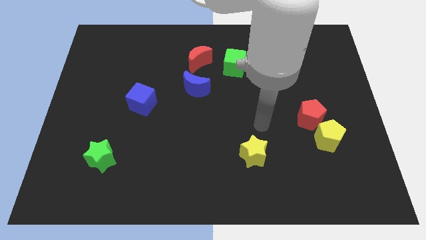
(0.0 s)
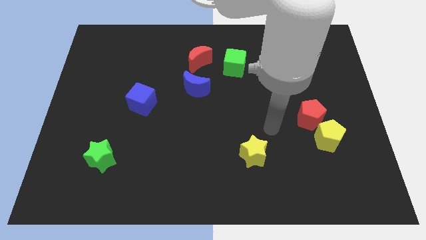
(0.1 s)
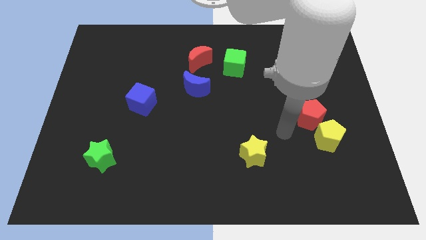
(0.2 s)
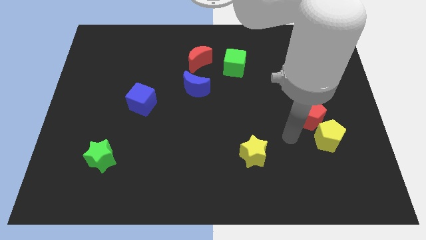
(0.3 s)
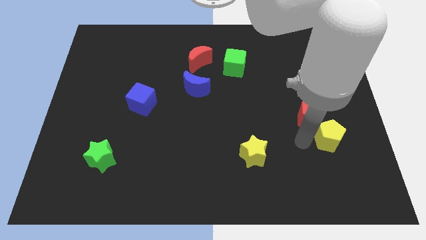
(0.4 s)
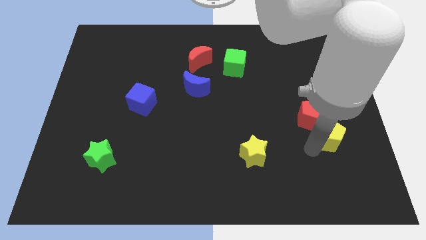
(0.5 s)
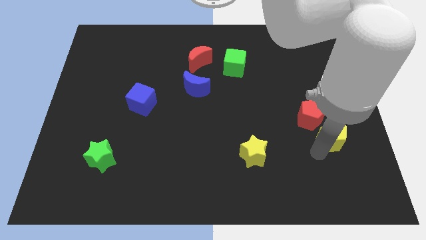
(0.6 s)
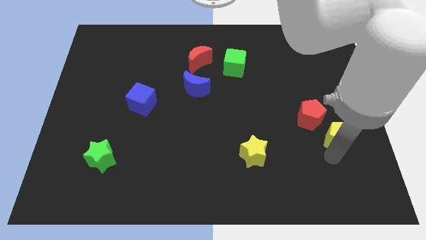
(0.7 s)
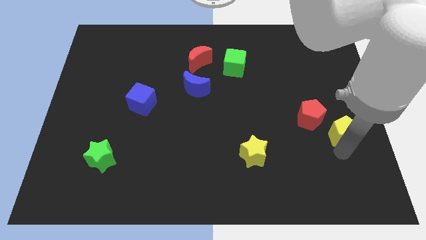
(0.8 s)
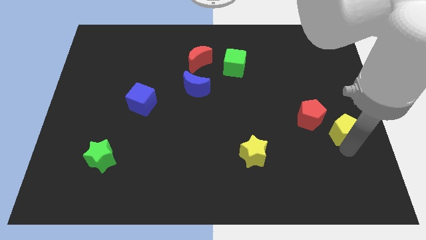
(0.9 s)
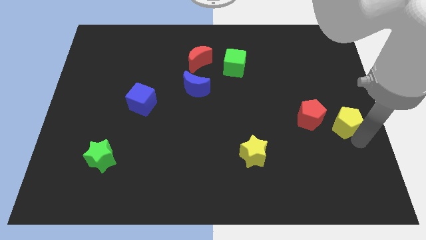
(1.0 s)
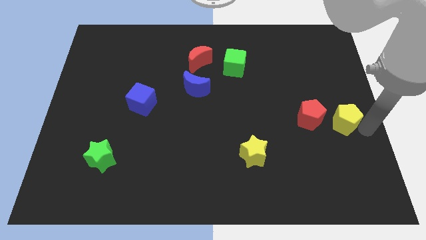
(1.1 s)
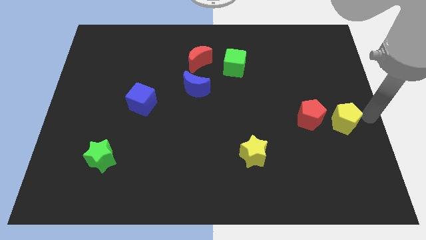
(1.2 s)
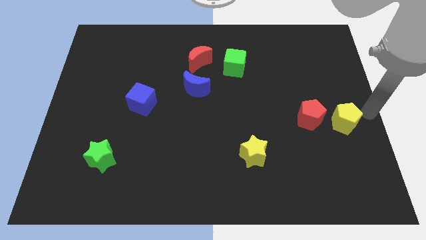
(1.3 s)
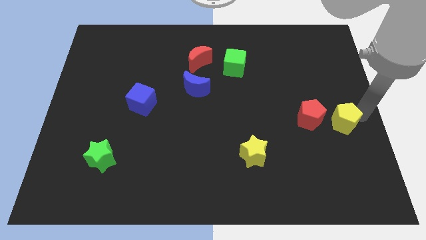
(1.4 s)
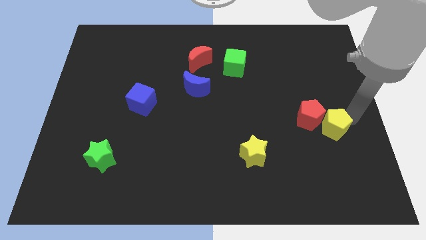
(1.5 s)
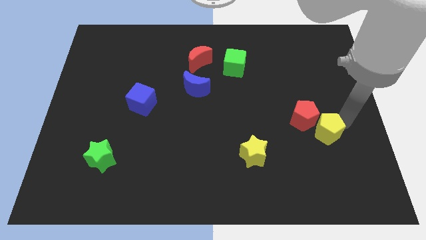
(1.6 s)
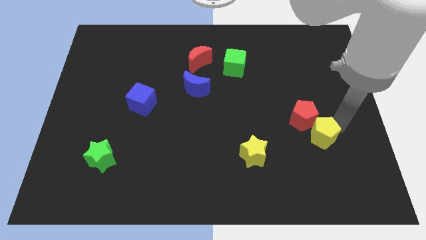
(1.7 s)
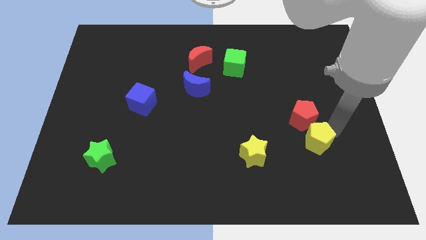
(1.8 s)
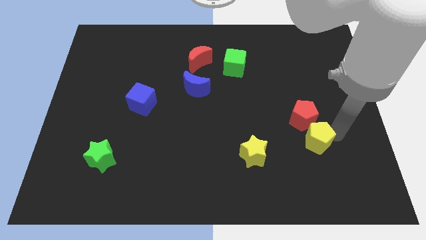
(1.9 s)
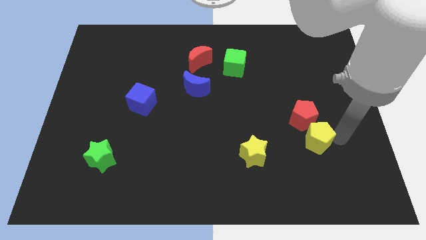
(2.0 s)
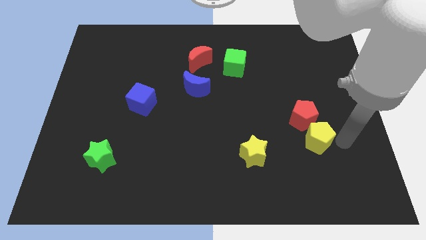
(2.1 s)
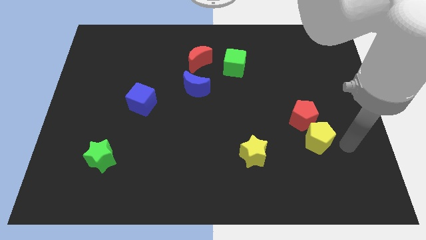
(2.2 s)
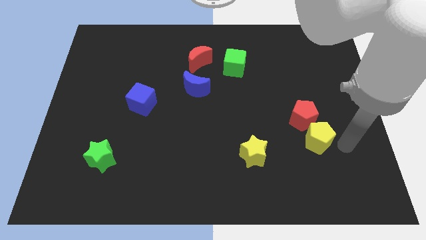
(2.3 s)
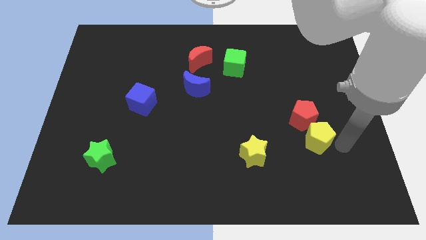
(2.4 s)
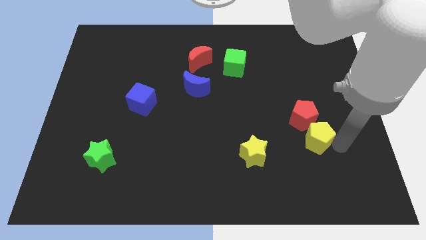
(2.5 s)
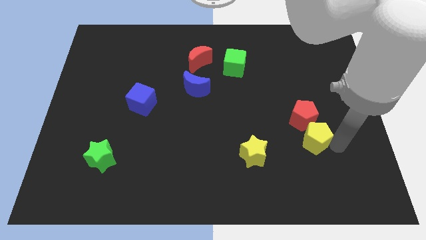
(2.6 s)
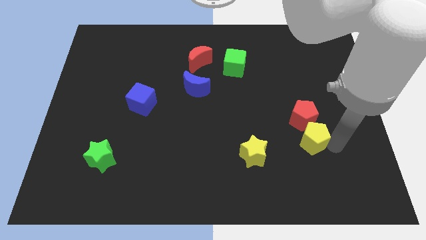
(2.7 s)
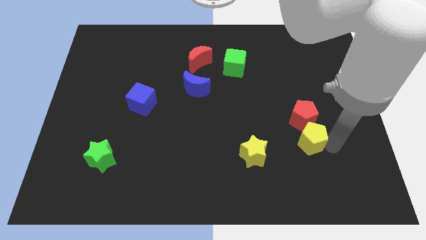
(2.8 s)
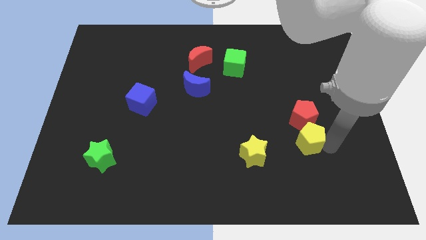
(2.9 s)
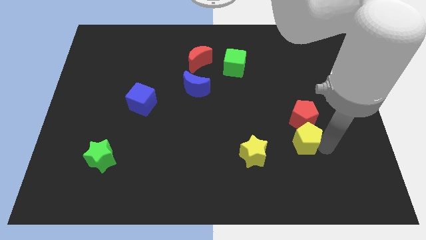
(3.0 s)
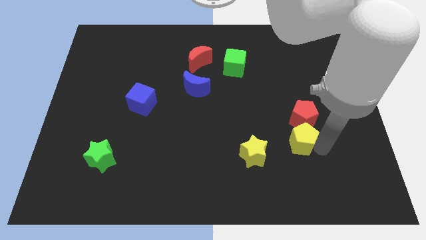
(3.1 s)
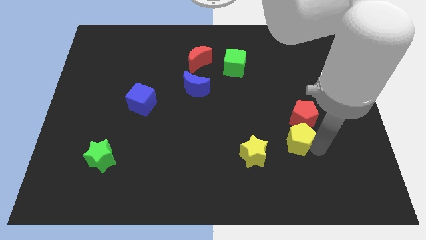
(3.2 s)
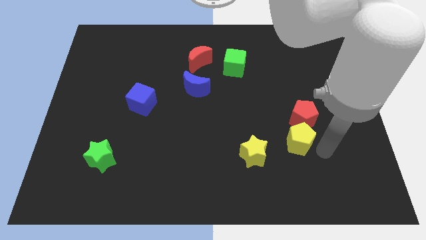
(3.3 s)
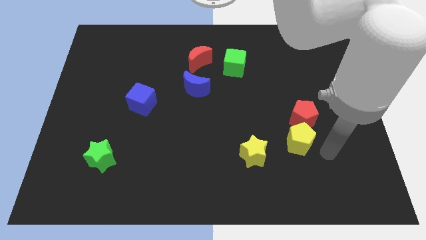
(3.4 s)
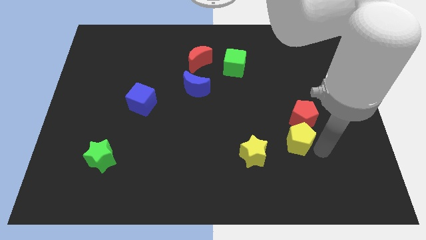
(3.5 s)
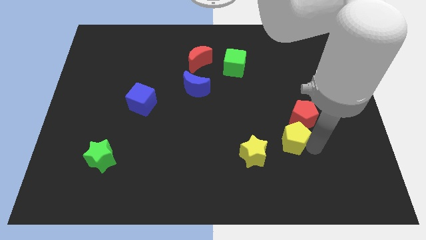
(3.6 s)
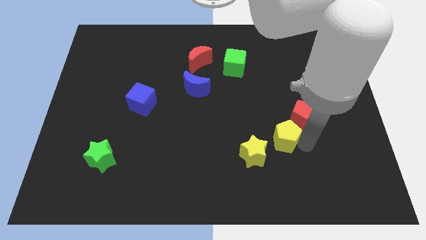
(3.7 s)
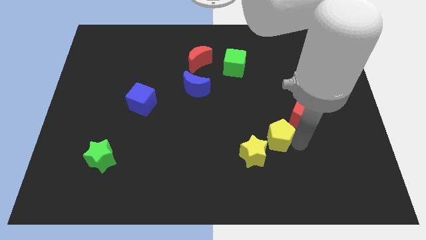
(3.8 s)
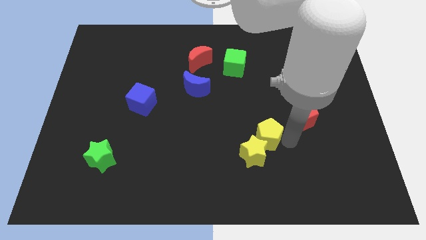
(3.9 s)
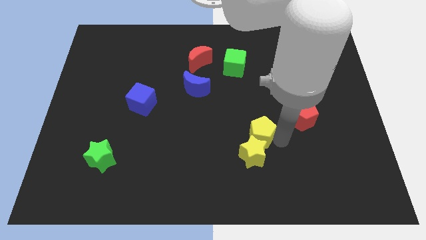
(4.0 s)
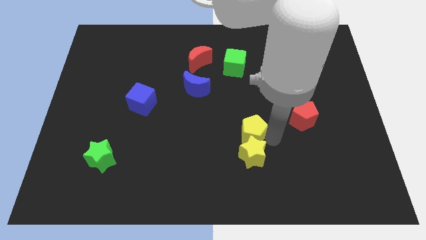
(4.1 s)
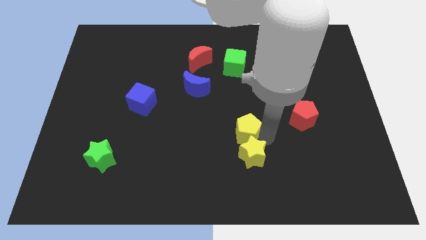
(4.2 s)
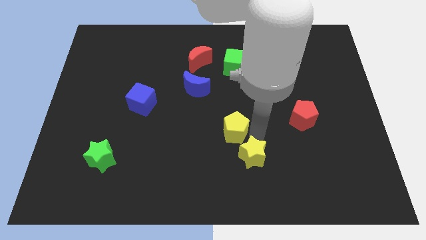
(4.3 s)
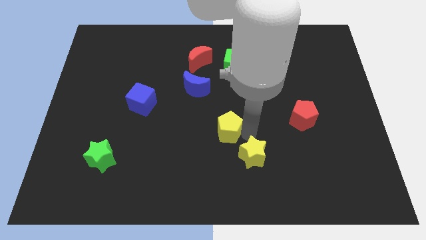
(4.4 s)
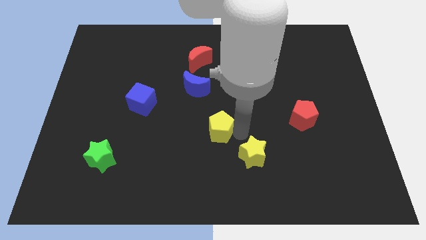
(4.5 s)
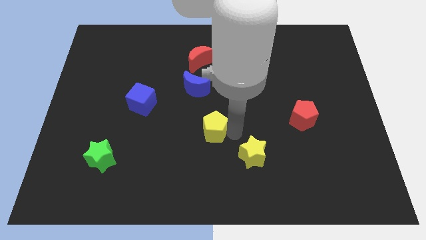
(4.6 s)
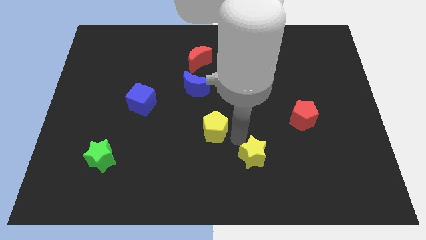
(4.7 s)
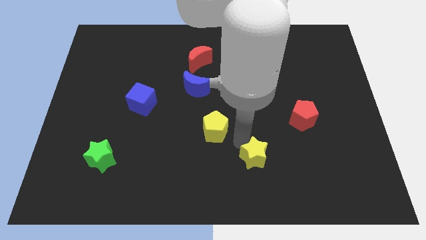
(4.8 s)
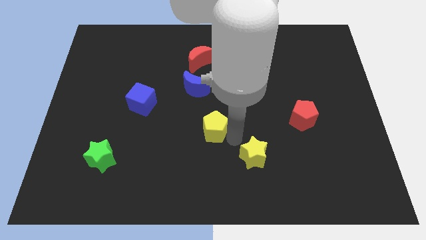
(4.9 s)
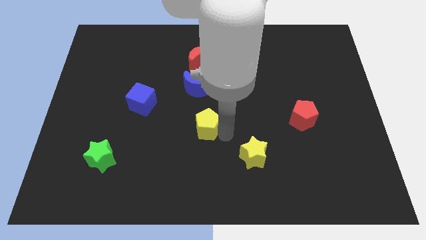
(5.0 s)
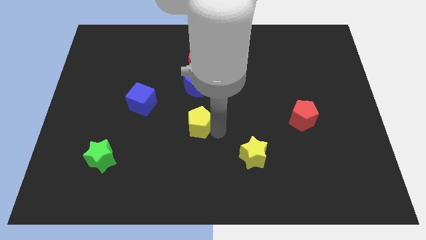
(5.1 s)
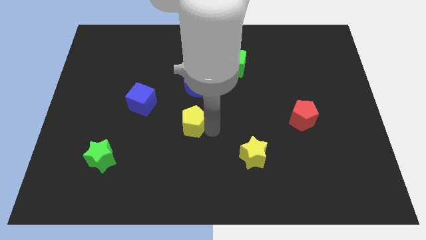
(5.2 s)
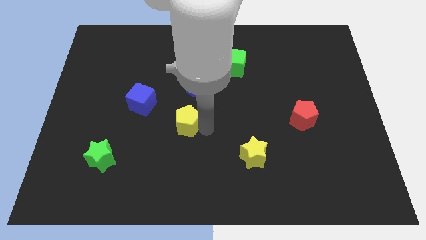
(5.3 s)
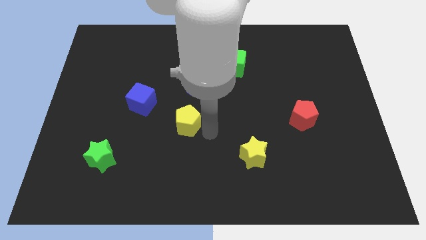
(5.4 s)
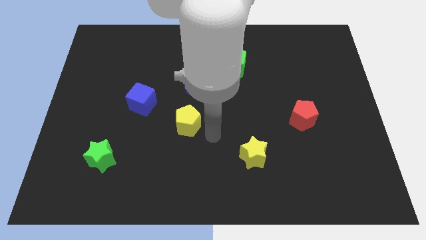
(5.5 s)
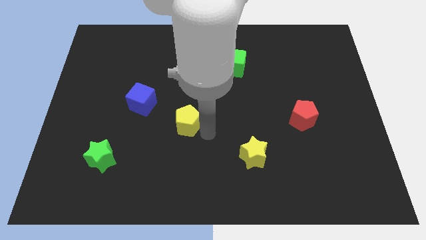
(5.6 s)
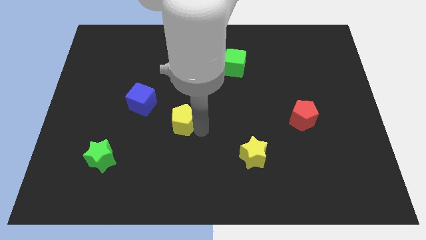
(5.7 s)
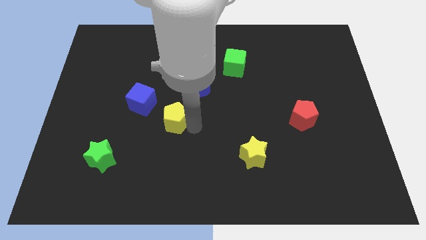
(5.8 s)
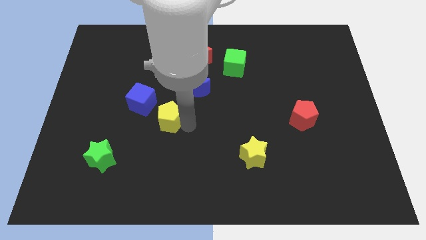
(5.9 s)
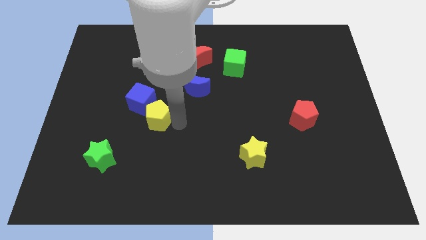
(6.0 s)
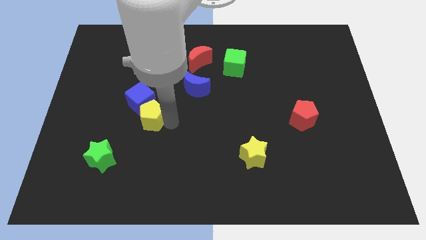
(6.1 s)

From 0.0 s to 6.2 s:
slide the yellow pentagon towards the blue cube

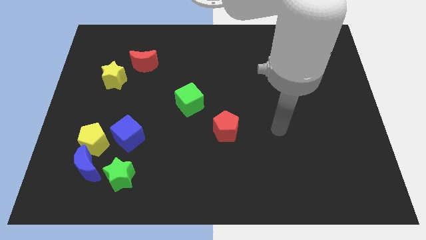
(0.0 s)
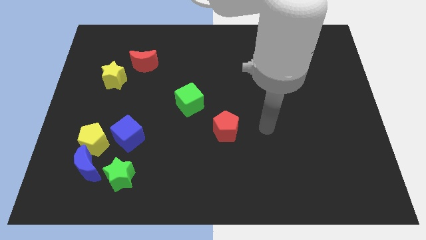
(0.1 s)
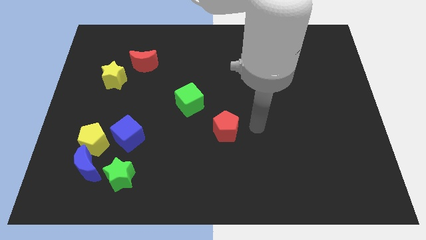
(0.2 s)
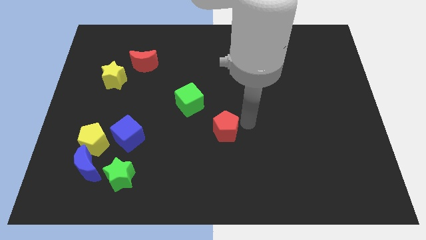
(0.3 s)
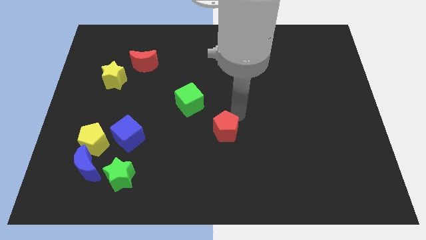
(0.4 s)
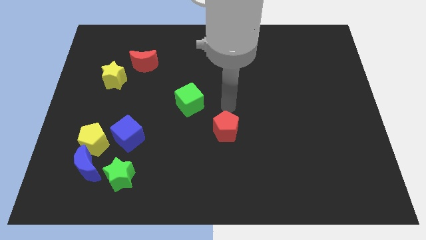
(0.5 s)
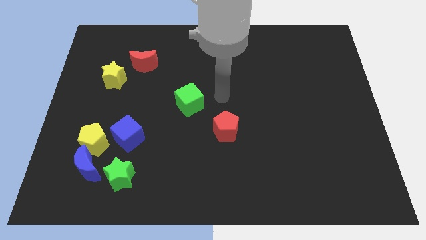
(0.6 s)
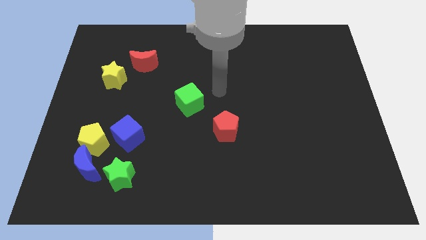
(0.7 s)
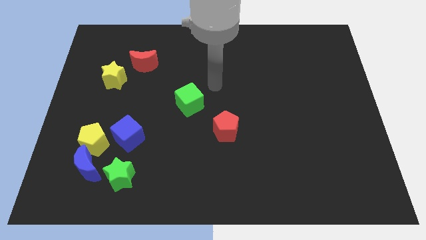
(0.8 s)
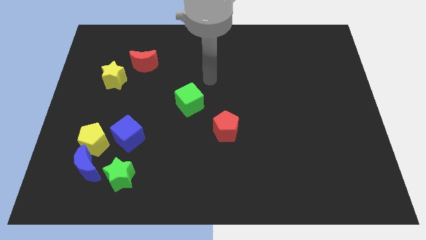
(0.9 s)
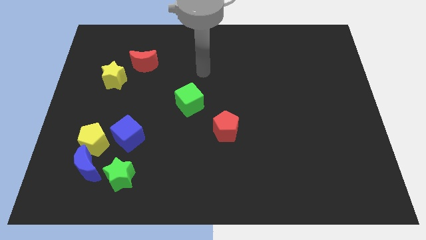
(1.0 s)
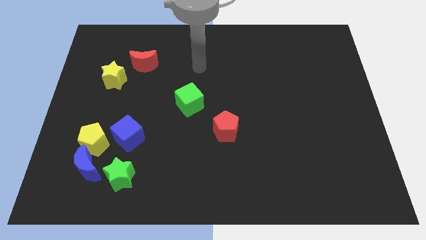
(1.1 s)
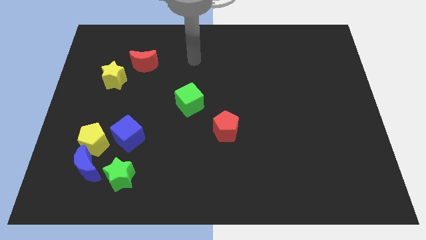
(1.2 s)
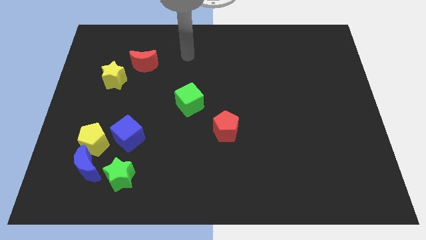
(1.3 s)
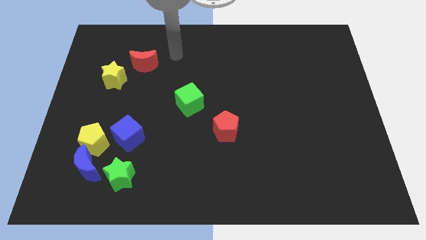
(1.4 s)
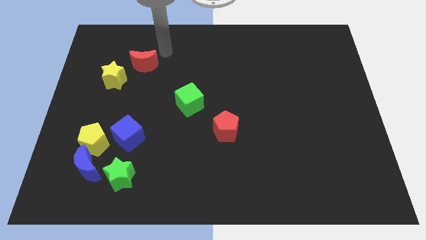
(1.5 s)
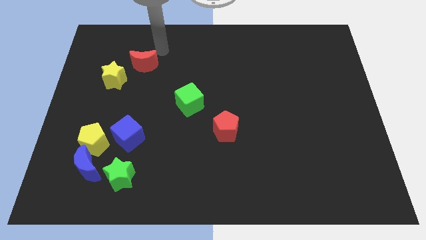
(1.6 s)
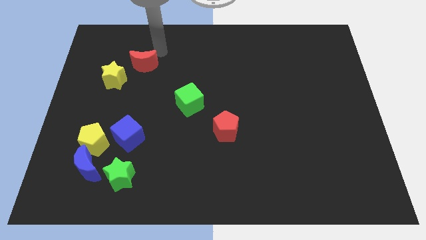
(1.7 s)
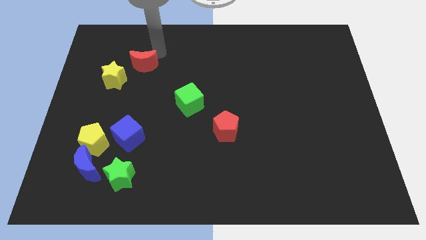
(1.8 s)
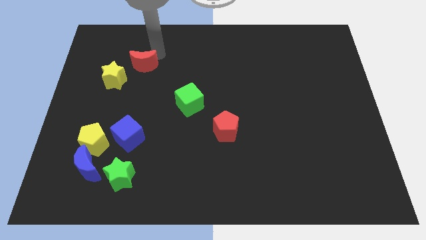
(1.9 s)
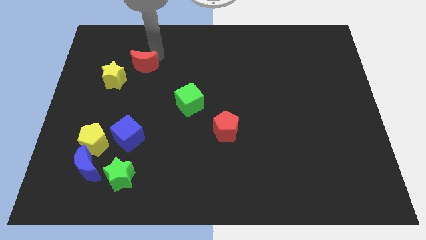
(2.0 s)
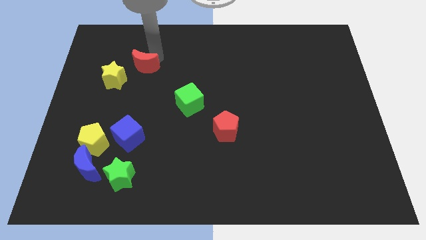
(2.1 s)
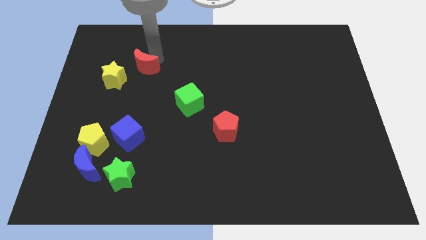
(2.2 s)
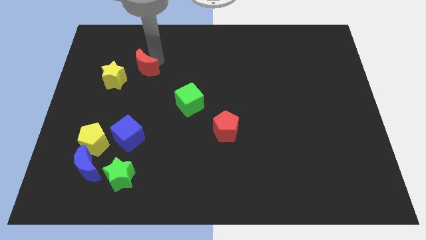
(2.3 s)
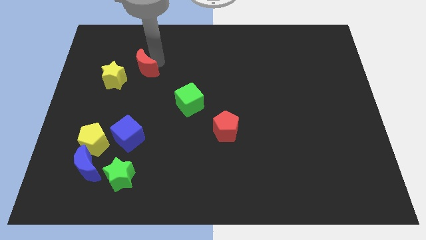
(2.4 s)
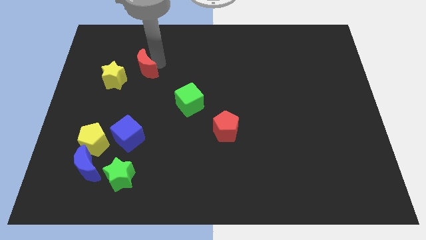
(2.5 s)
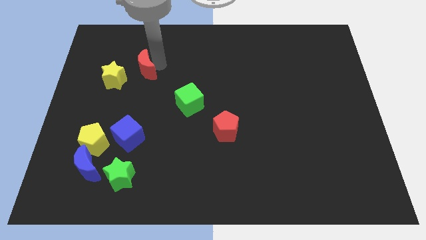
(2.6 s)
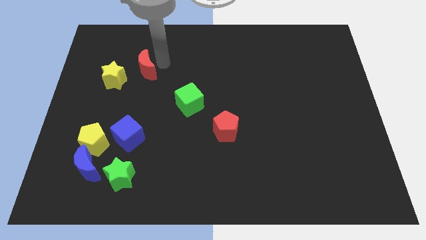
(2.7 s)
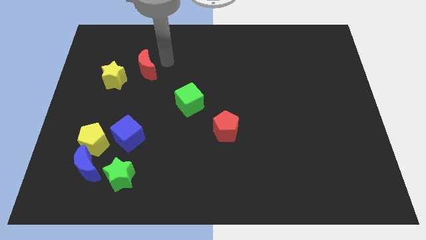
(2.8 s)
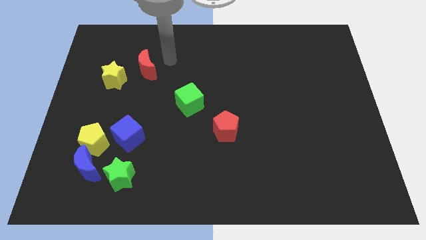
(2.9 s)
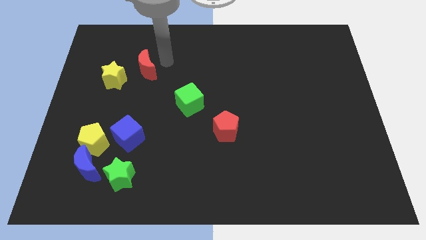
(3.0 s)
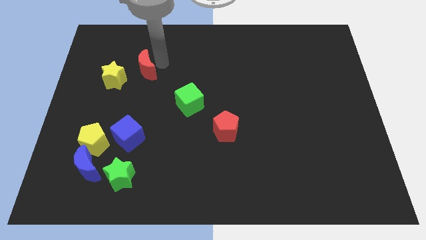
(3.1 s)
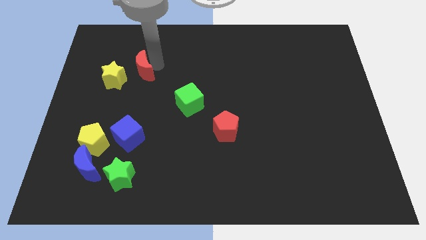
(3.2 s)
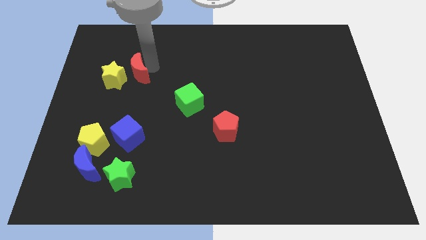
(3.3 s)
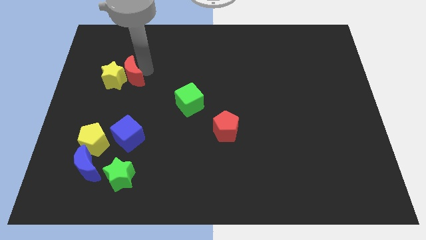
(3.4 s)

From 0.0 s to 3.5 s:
move the red moon next to the yellow star
